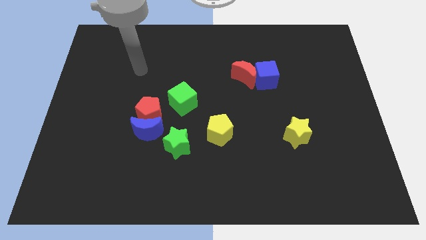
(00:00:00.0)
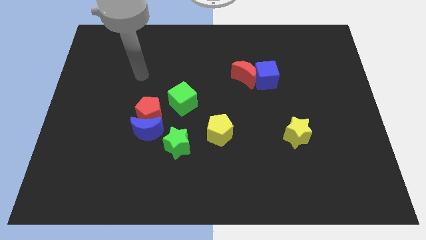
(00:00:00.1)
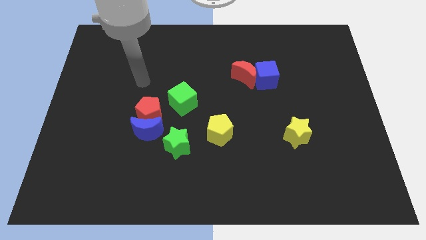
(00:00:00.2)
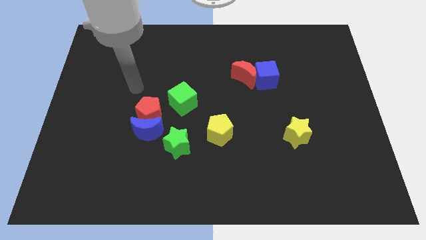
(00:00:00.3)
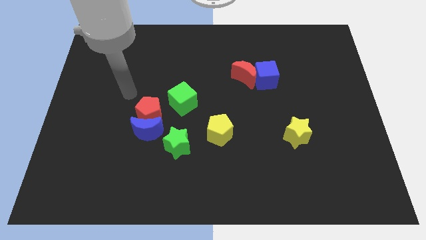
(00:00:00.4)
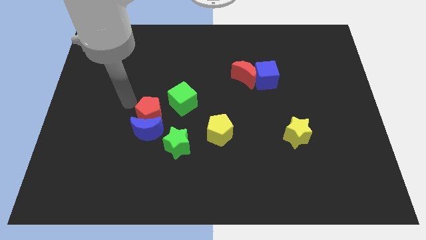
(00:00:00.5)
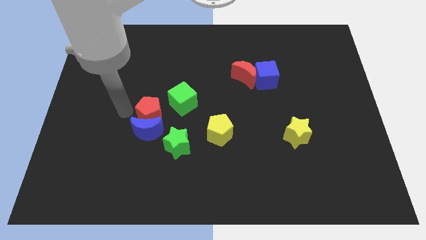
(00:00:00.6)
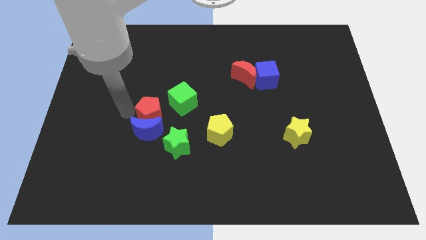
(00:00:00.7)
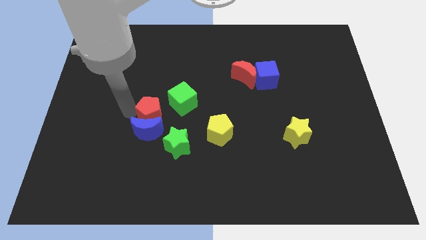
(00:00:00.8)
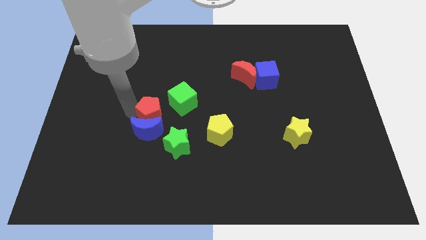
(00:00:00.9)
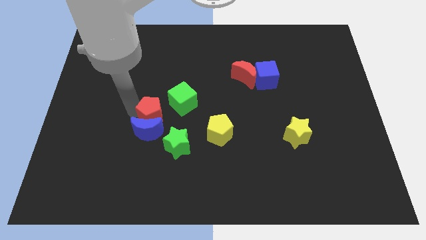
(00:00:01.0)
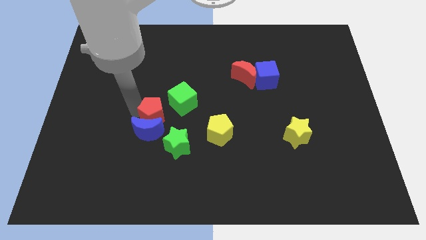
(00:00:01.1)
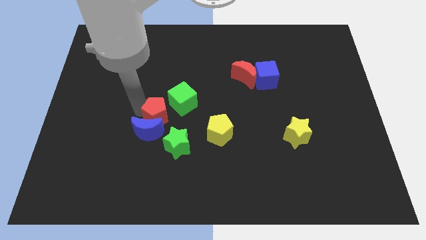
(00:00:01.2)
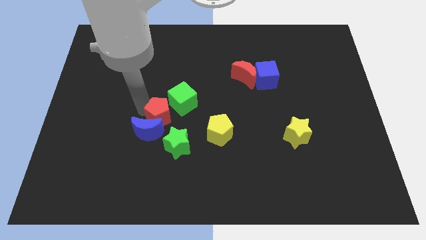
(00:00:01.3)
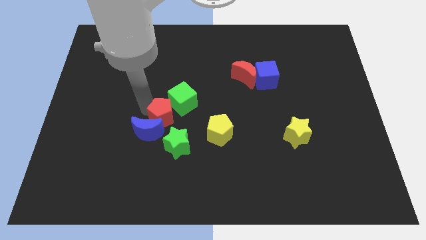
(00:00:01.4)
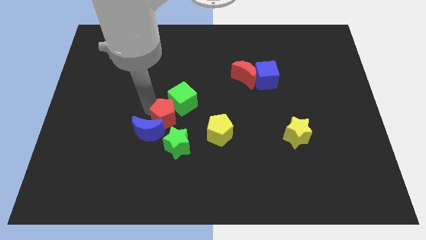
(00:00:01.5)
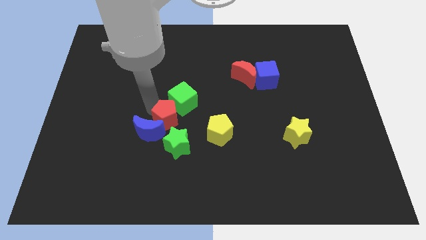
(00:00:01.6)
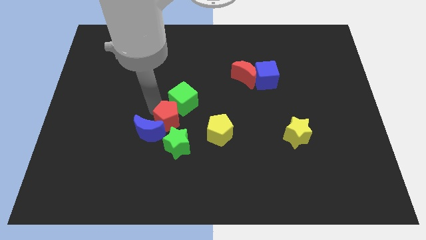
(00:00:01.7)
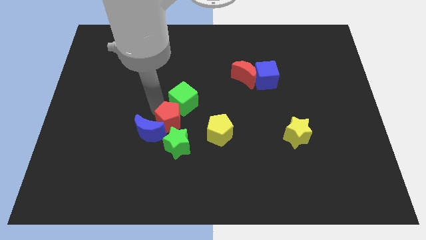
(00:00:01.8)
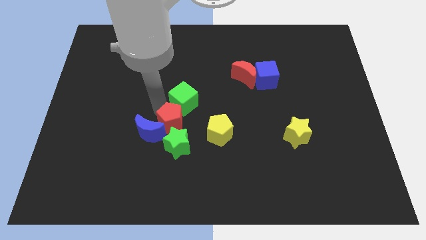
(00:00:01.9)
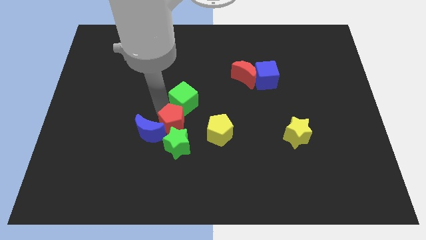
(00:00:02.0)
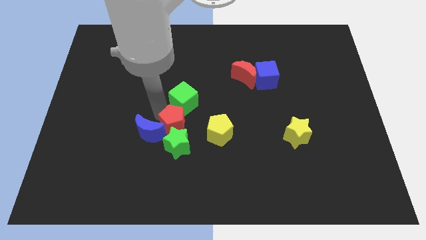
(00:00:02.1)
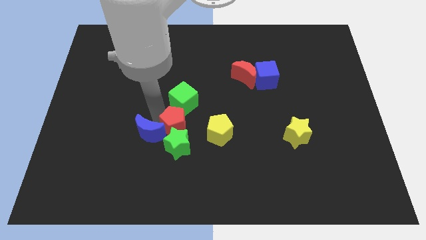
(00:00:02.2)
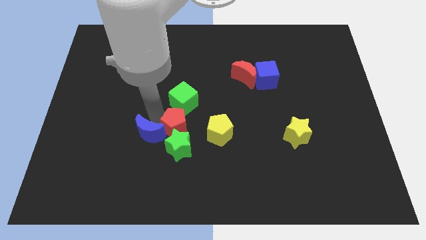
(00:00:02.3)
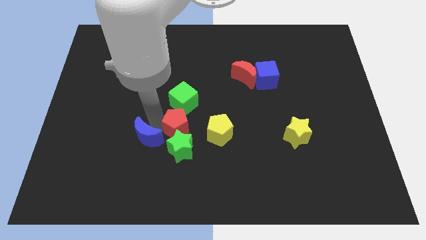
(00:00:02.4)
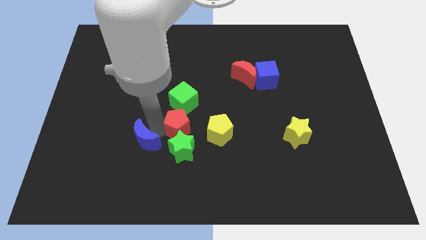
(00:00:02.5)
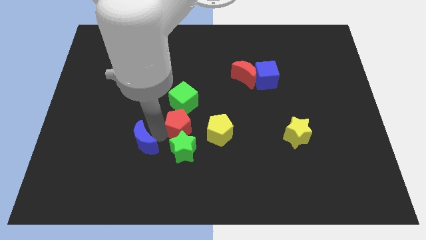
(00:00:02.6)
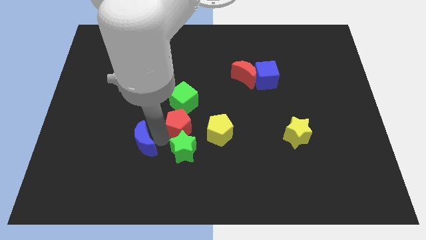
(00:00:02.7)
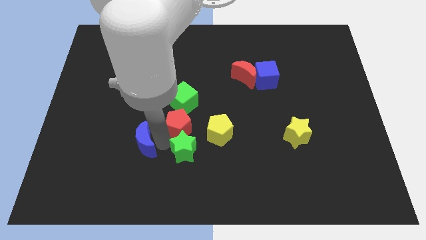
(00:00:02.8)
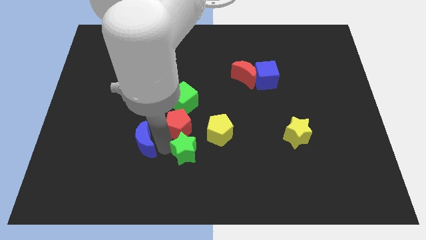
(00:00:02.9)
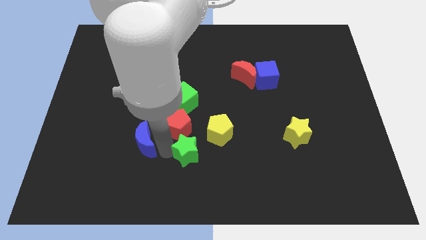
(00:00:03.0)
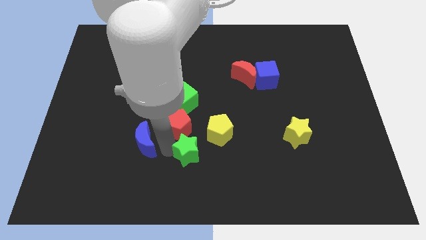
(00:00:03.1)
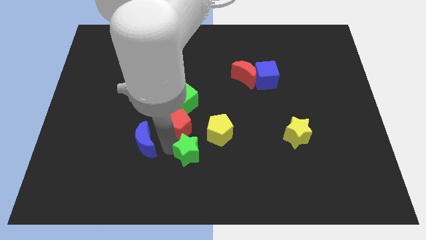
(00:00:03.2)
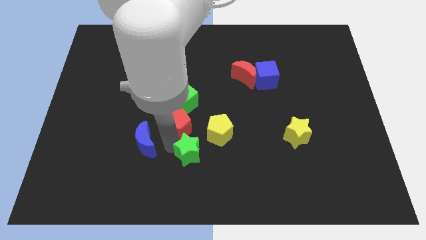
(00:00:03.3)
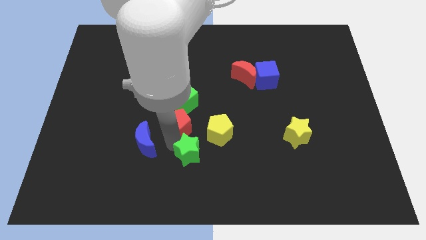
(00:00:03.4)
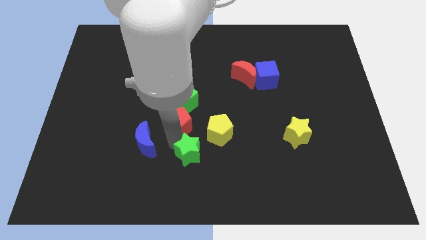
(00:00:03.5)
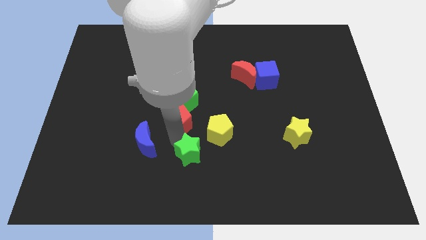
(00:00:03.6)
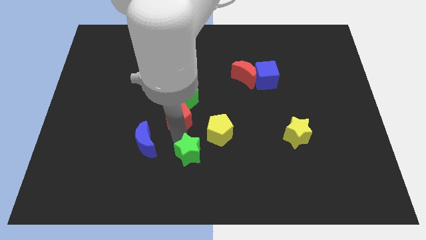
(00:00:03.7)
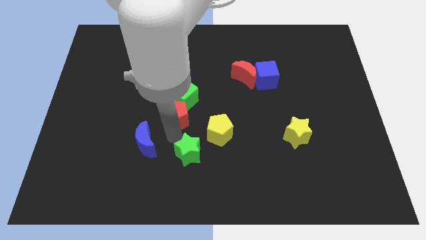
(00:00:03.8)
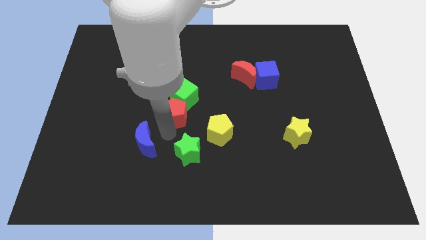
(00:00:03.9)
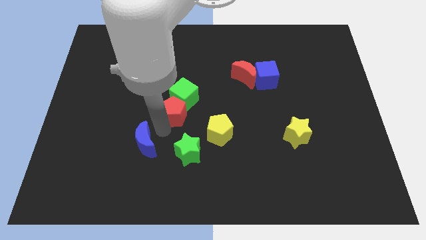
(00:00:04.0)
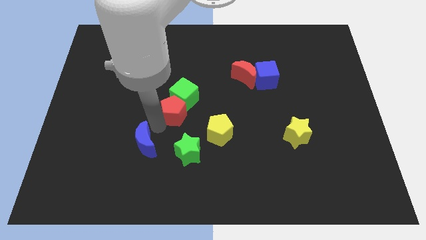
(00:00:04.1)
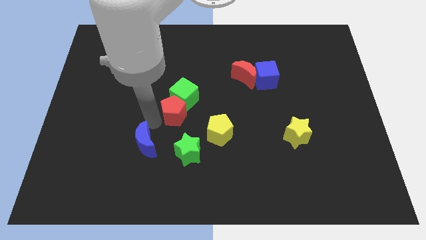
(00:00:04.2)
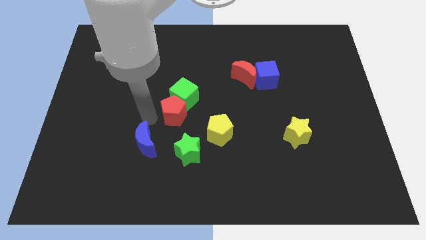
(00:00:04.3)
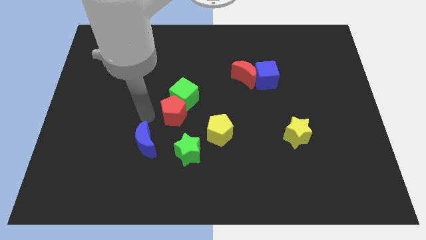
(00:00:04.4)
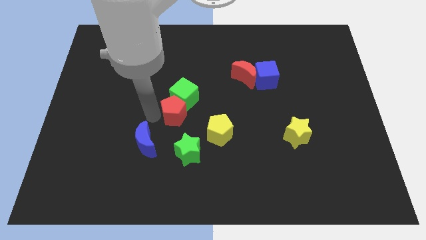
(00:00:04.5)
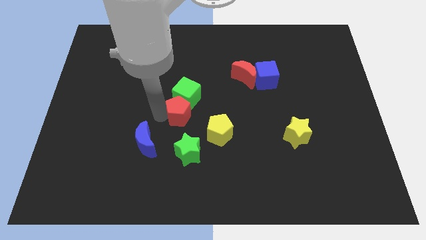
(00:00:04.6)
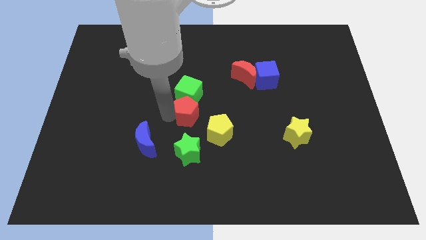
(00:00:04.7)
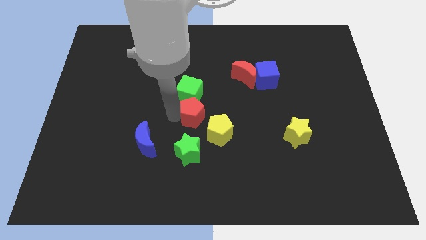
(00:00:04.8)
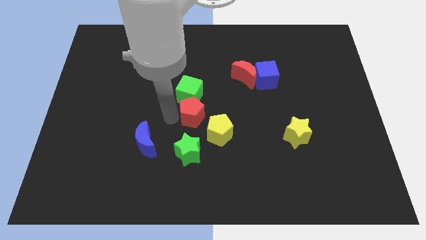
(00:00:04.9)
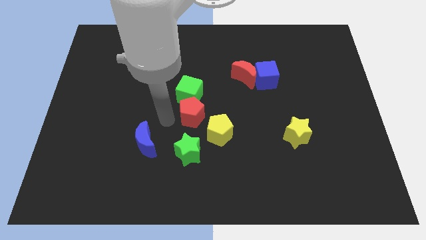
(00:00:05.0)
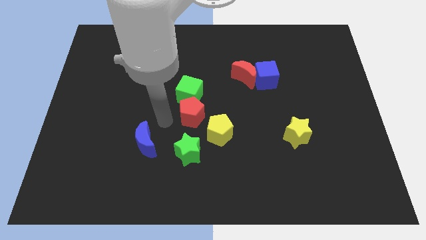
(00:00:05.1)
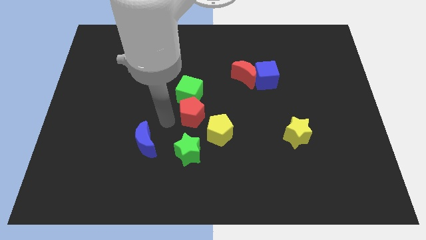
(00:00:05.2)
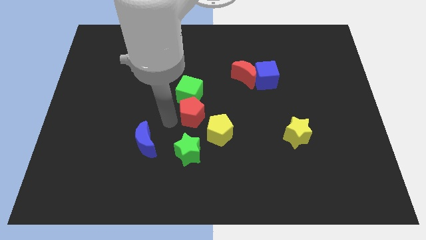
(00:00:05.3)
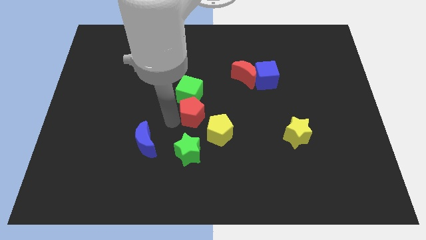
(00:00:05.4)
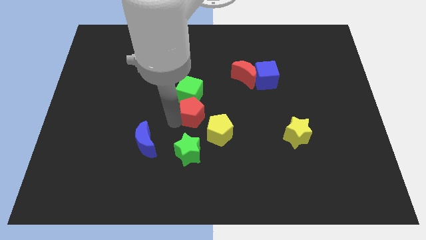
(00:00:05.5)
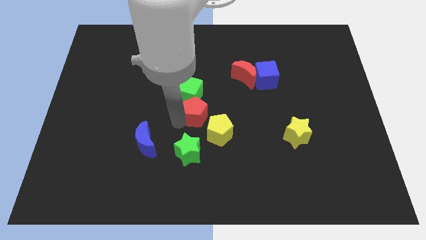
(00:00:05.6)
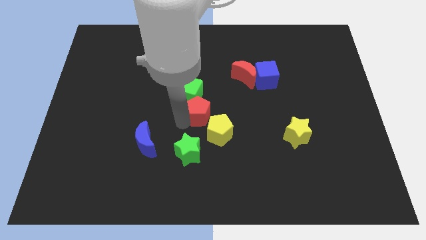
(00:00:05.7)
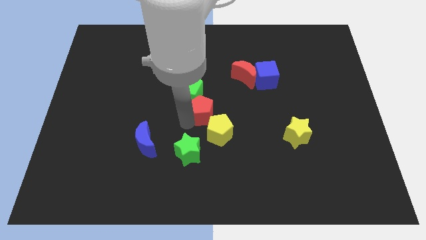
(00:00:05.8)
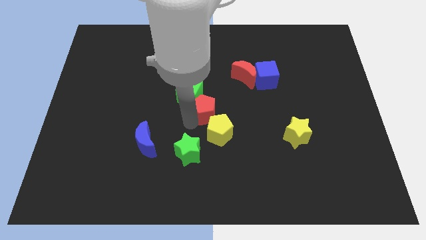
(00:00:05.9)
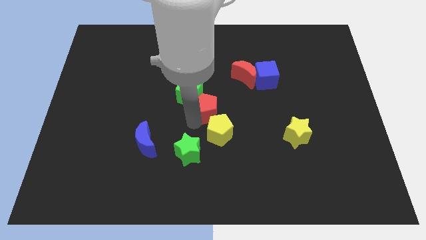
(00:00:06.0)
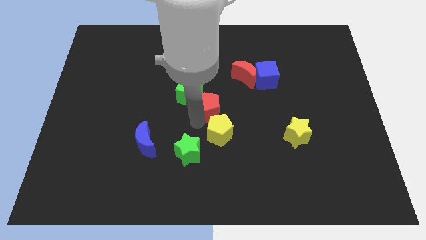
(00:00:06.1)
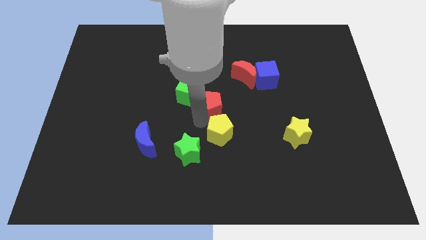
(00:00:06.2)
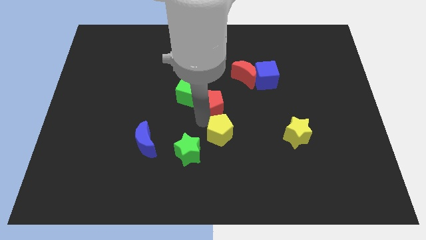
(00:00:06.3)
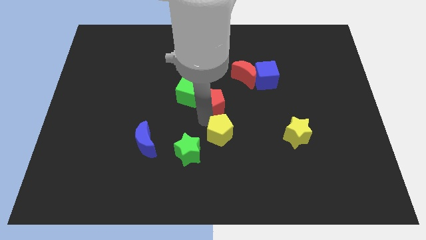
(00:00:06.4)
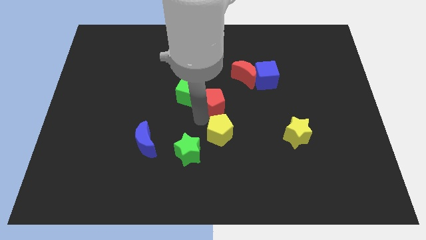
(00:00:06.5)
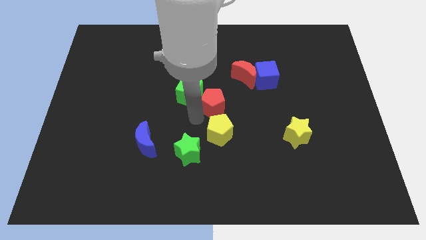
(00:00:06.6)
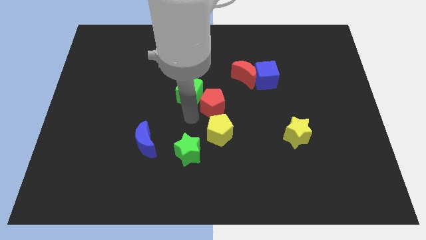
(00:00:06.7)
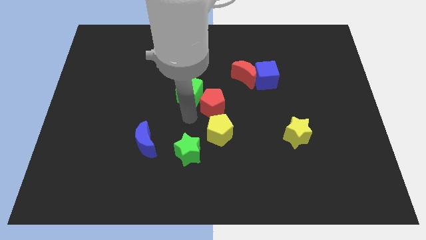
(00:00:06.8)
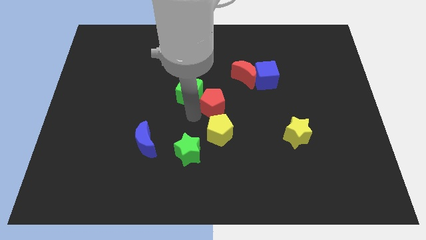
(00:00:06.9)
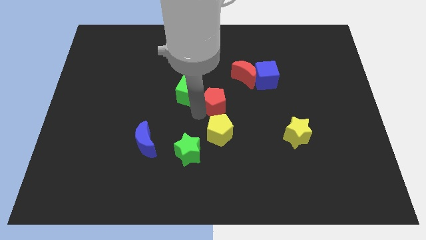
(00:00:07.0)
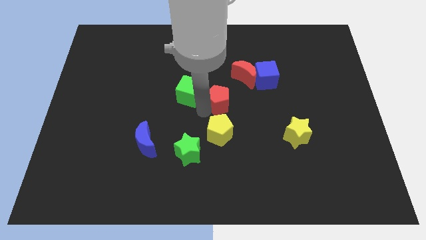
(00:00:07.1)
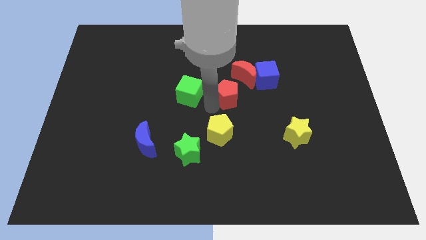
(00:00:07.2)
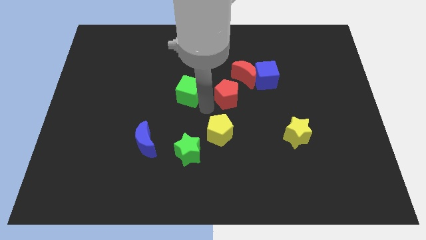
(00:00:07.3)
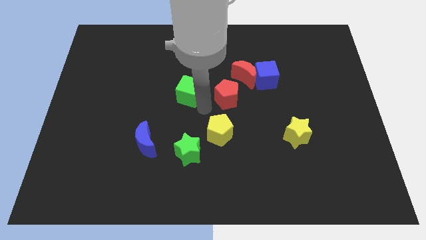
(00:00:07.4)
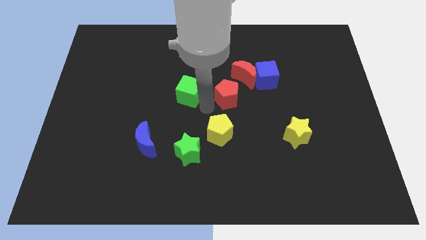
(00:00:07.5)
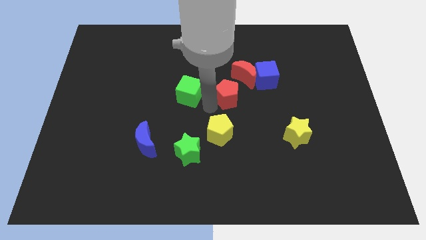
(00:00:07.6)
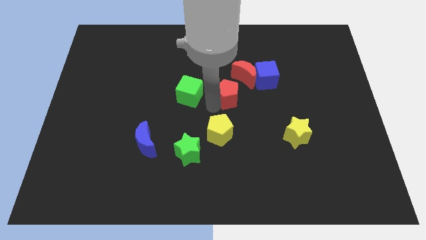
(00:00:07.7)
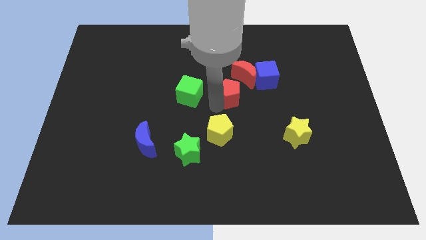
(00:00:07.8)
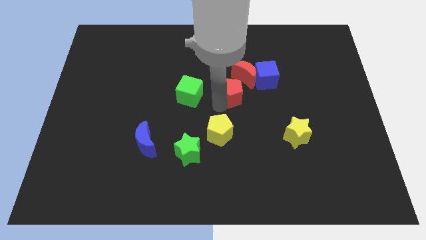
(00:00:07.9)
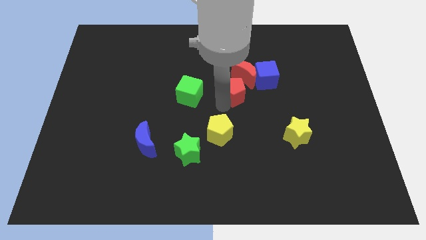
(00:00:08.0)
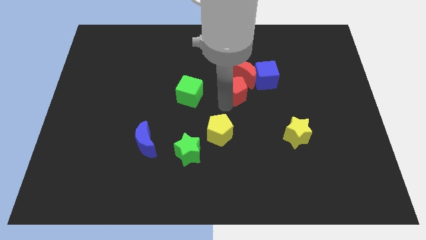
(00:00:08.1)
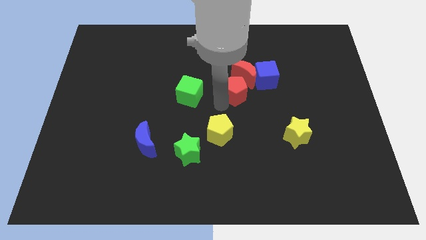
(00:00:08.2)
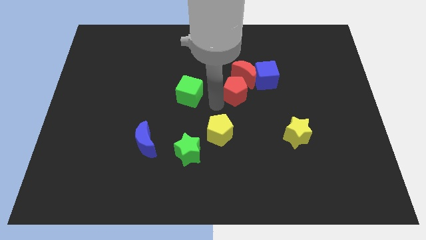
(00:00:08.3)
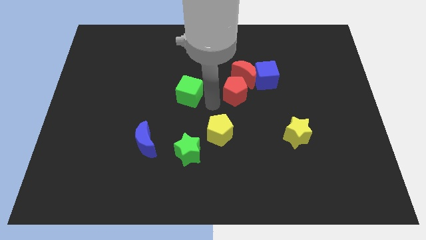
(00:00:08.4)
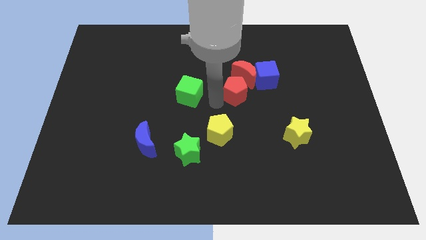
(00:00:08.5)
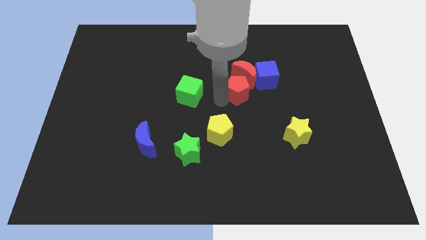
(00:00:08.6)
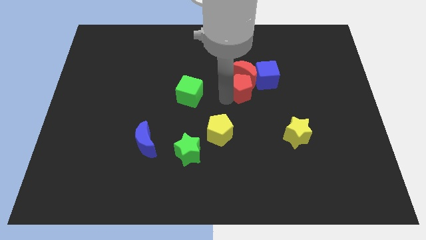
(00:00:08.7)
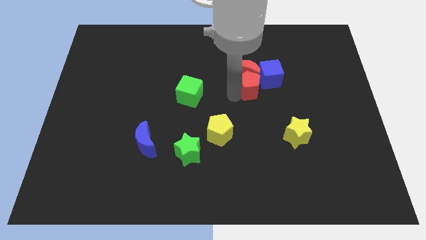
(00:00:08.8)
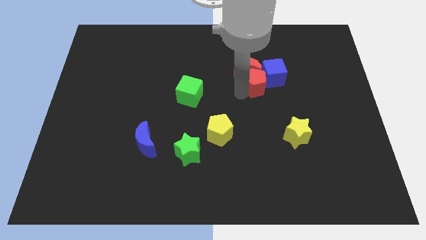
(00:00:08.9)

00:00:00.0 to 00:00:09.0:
push the red pentagon to the blue cube
